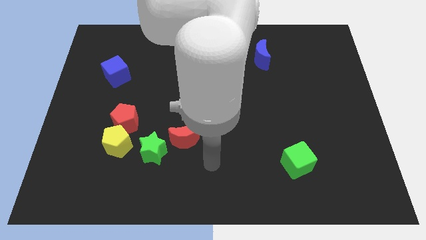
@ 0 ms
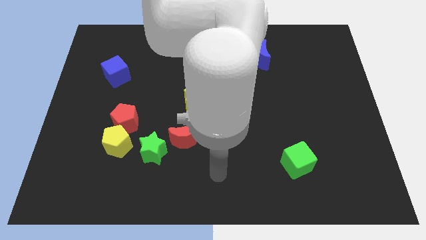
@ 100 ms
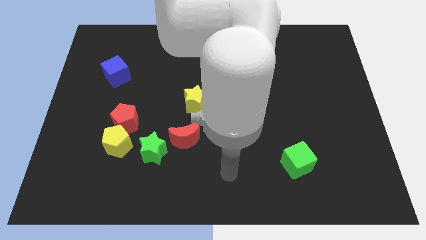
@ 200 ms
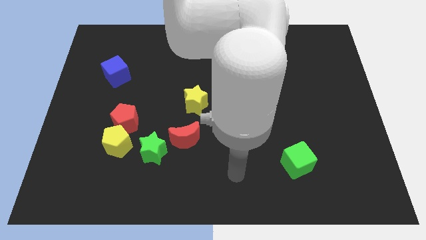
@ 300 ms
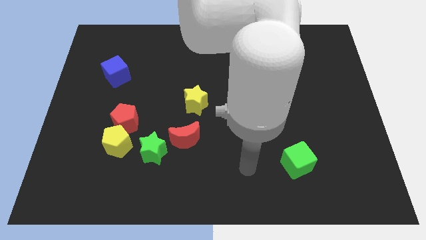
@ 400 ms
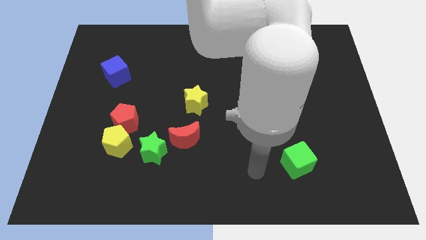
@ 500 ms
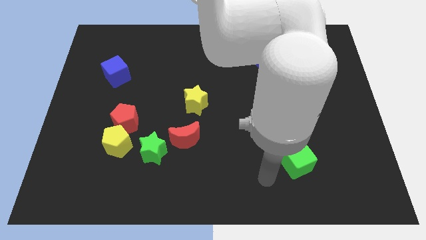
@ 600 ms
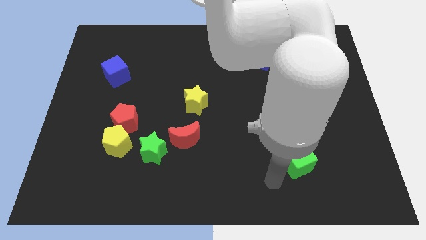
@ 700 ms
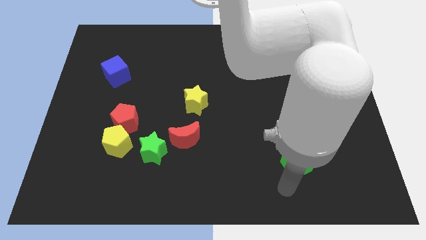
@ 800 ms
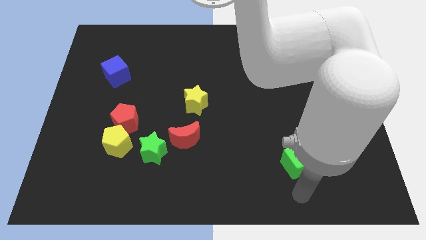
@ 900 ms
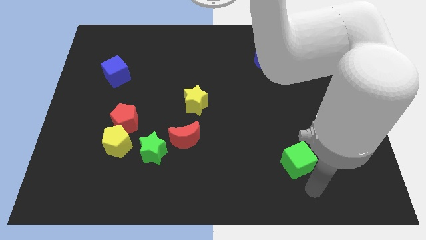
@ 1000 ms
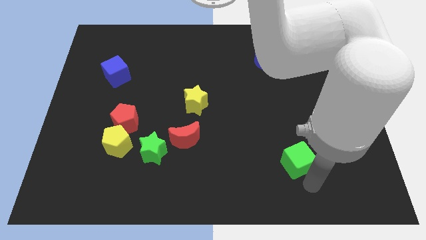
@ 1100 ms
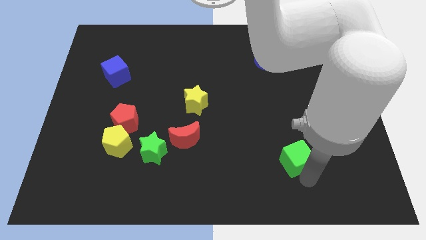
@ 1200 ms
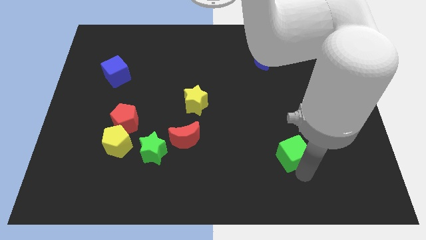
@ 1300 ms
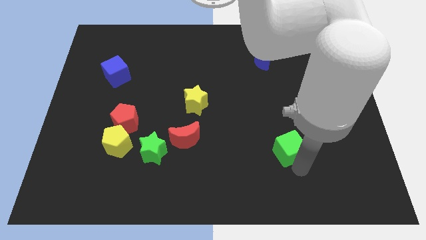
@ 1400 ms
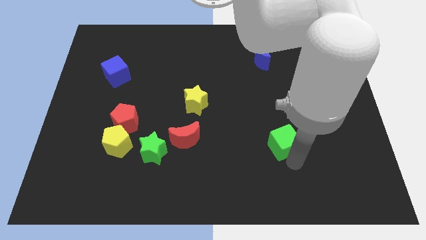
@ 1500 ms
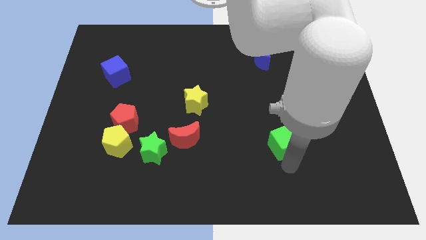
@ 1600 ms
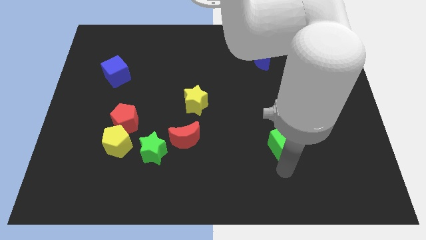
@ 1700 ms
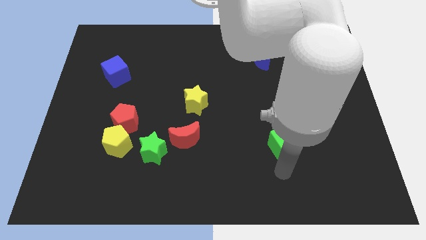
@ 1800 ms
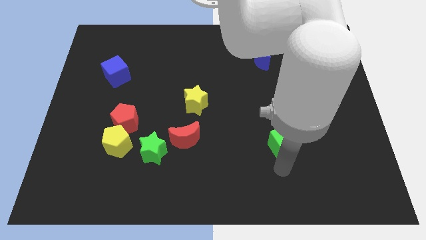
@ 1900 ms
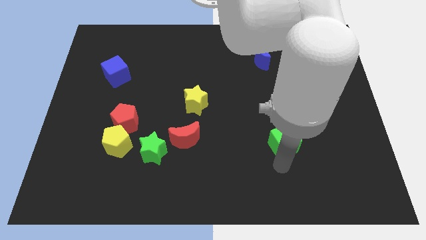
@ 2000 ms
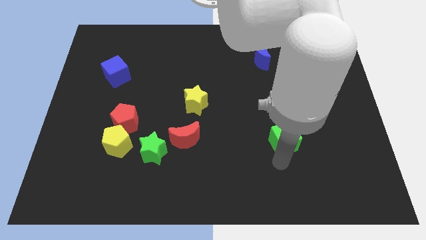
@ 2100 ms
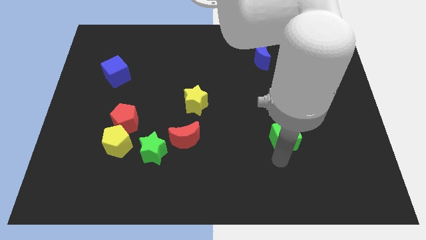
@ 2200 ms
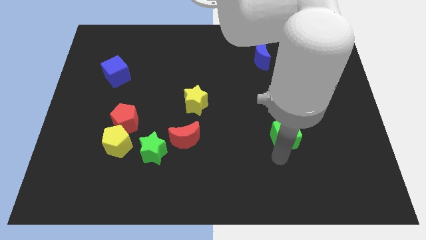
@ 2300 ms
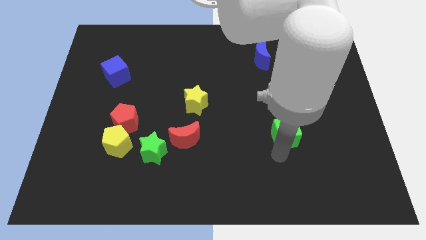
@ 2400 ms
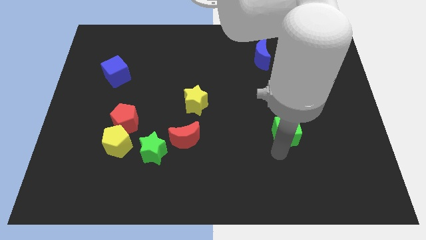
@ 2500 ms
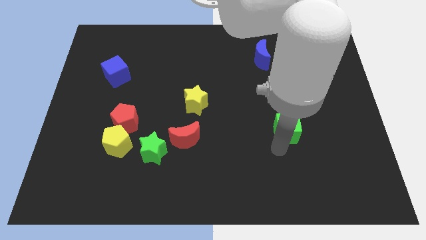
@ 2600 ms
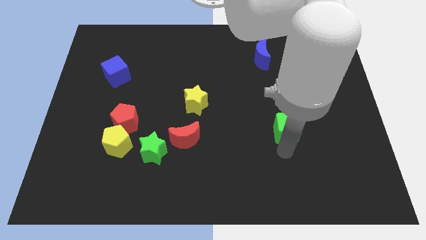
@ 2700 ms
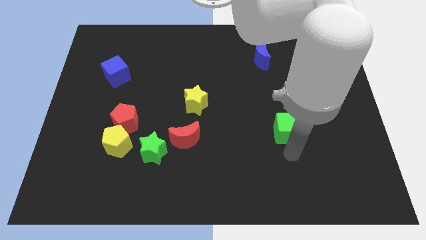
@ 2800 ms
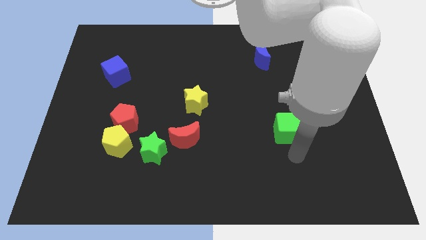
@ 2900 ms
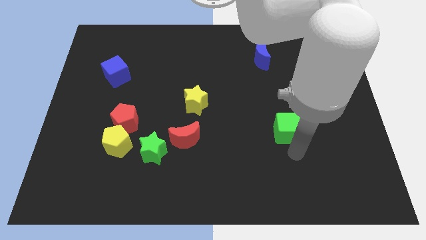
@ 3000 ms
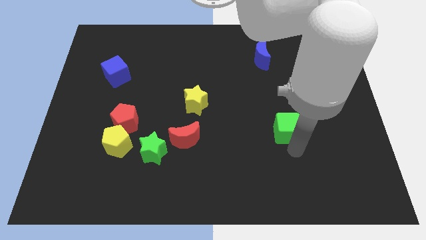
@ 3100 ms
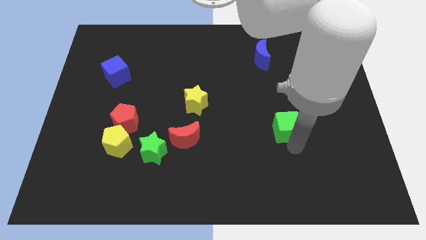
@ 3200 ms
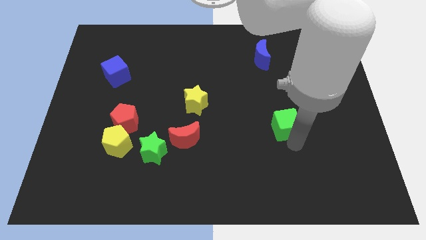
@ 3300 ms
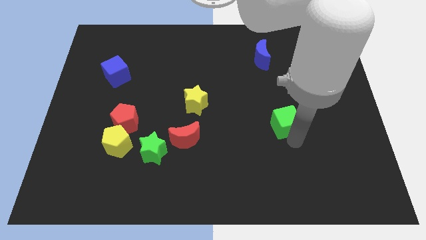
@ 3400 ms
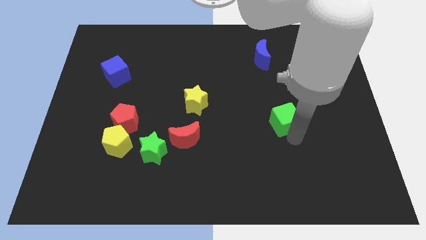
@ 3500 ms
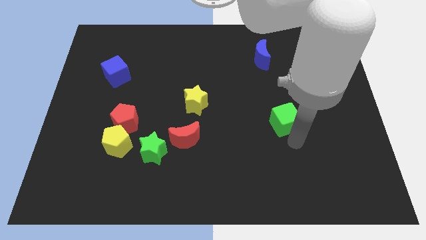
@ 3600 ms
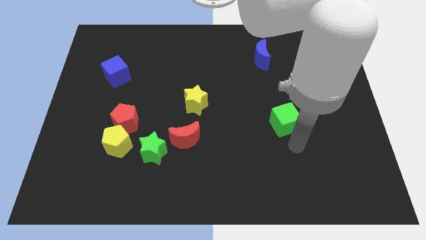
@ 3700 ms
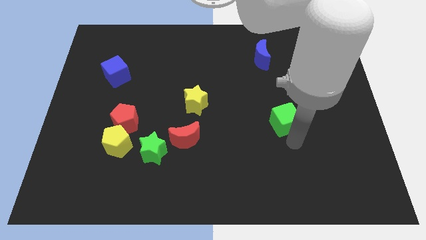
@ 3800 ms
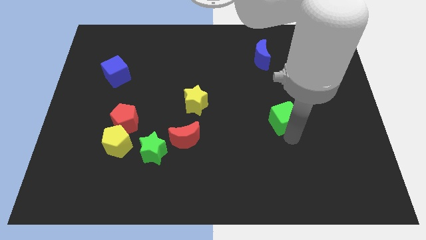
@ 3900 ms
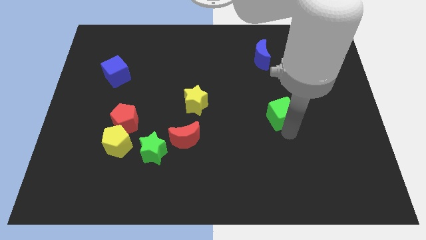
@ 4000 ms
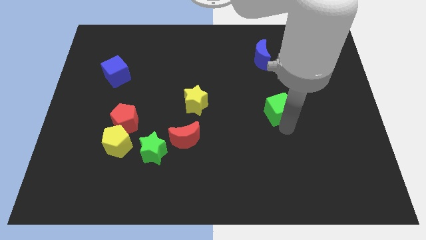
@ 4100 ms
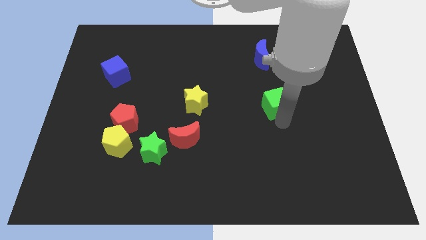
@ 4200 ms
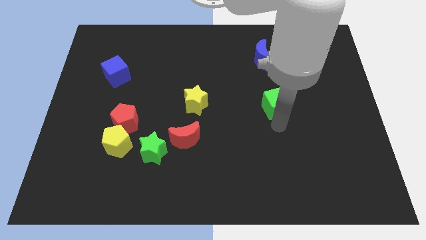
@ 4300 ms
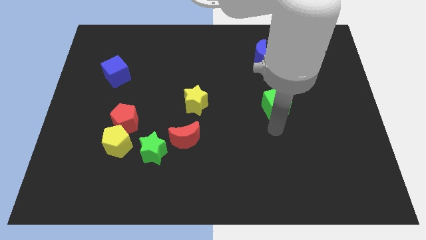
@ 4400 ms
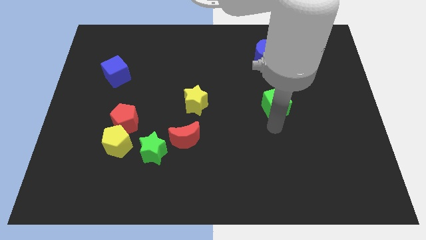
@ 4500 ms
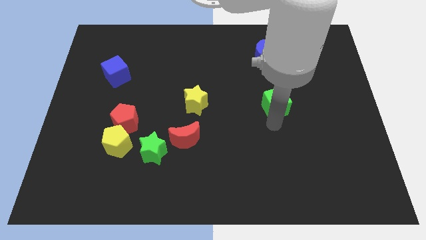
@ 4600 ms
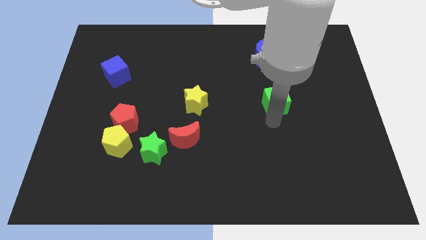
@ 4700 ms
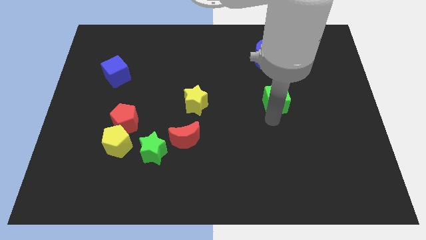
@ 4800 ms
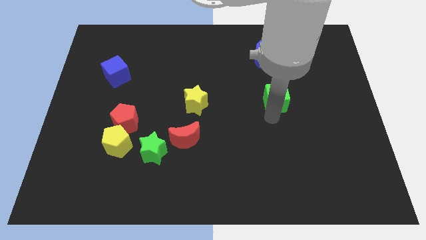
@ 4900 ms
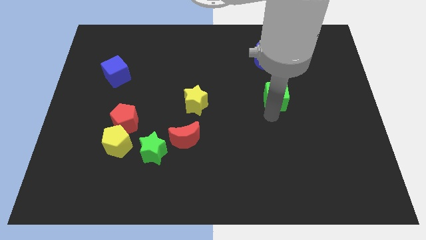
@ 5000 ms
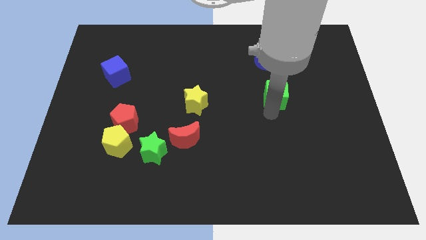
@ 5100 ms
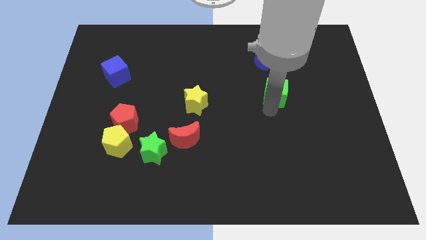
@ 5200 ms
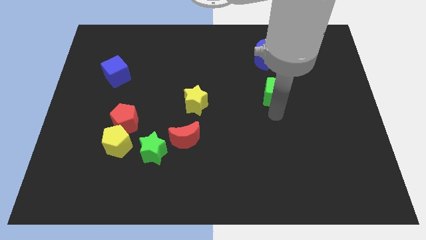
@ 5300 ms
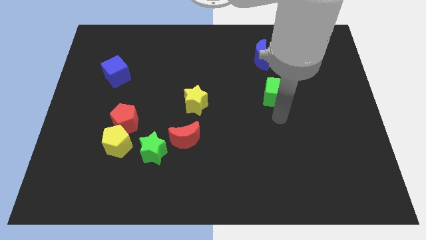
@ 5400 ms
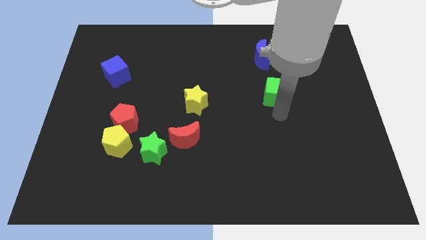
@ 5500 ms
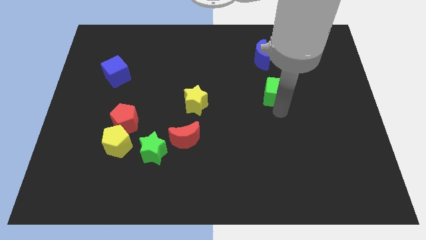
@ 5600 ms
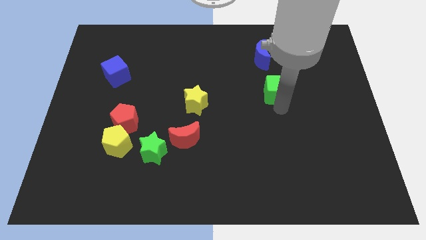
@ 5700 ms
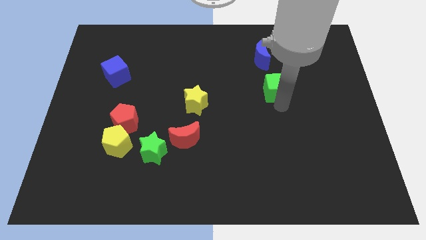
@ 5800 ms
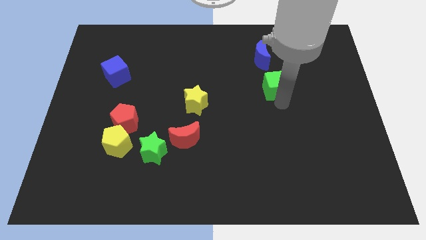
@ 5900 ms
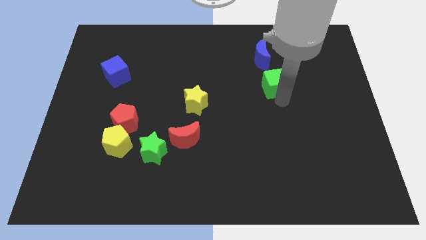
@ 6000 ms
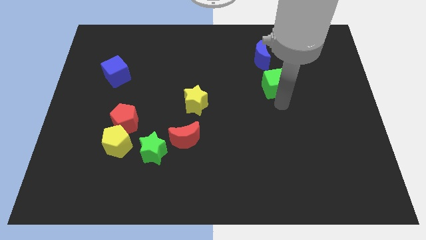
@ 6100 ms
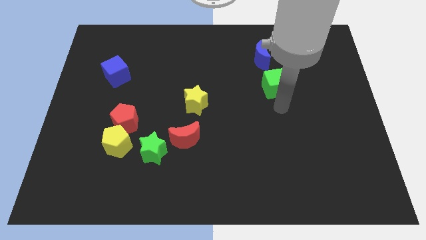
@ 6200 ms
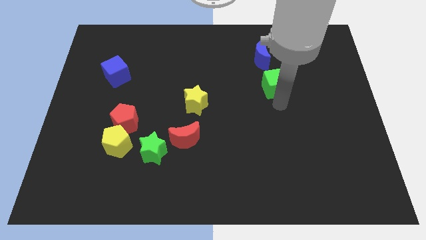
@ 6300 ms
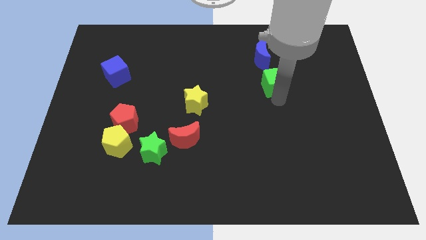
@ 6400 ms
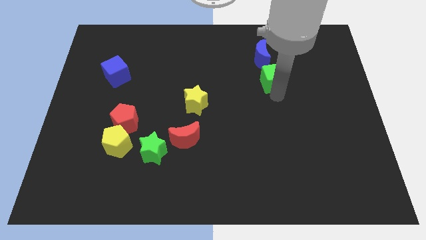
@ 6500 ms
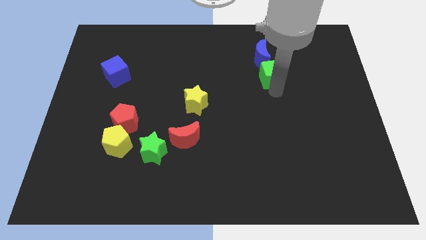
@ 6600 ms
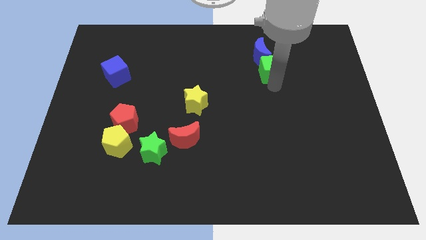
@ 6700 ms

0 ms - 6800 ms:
push the green cube close to the blue moon
